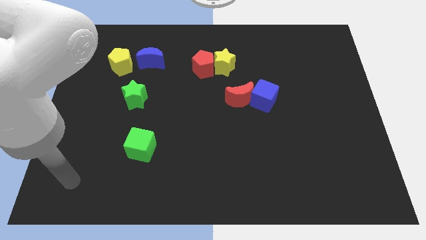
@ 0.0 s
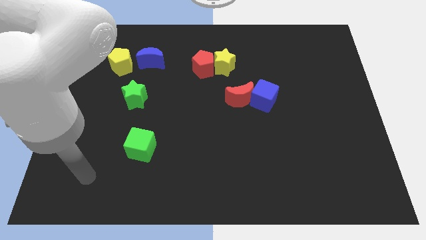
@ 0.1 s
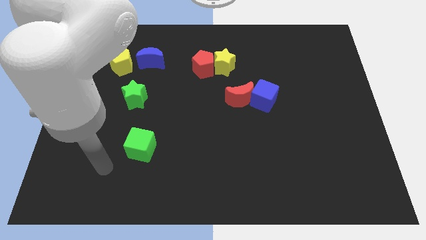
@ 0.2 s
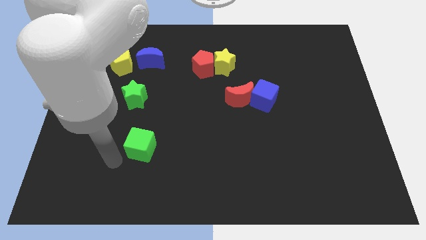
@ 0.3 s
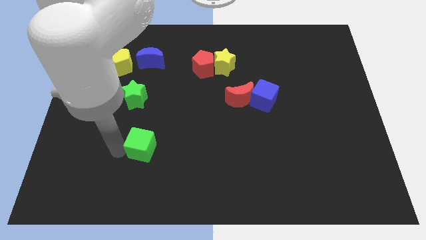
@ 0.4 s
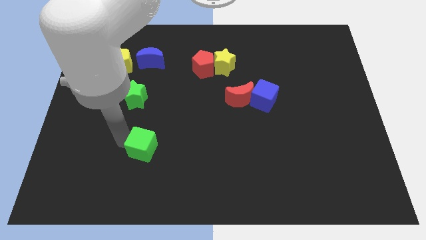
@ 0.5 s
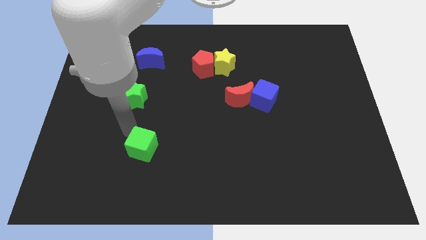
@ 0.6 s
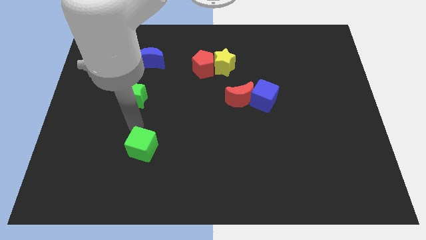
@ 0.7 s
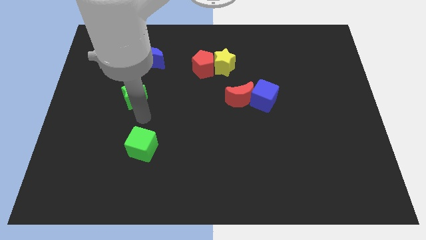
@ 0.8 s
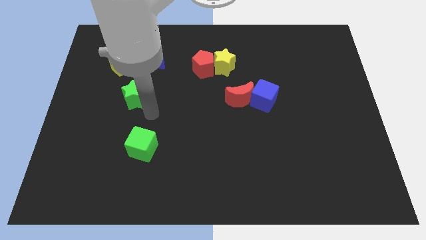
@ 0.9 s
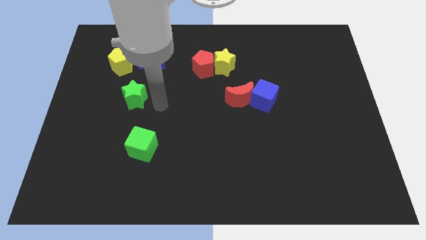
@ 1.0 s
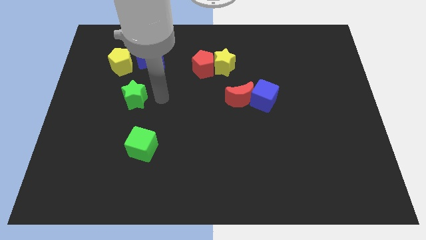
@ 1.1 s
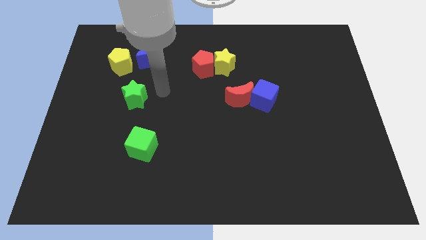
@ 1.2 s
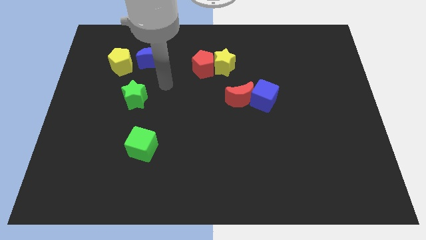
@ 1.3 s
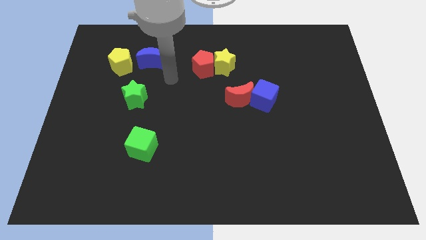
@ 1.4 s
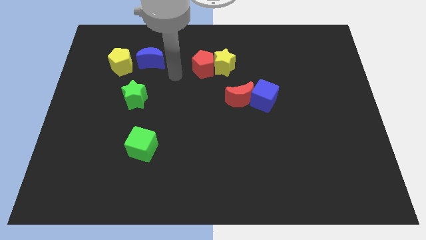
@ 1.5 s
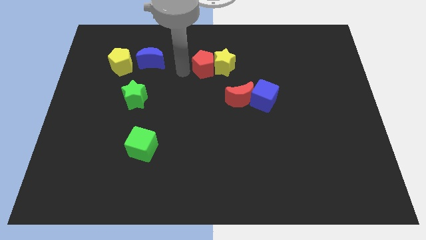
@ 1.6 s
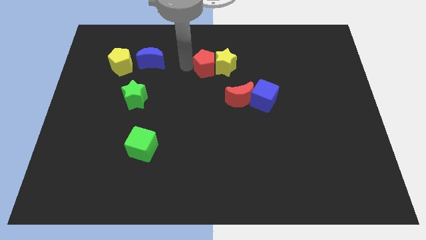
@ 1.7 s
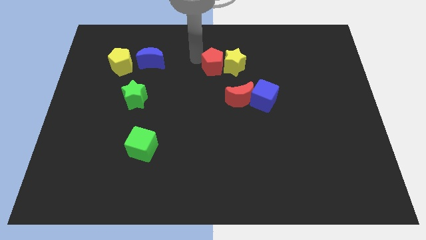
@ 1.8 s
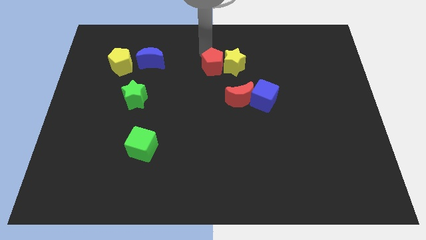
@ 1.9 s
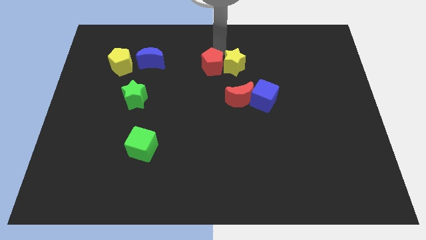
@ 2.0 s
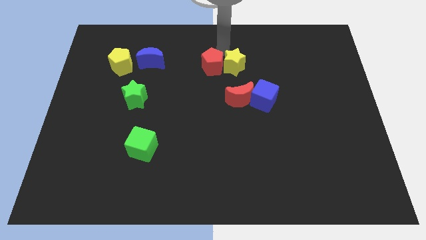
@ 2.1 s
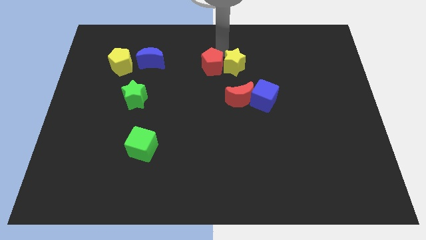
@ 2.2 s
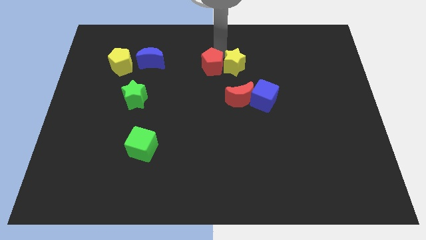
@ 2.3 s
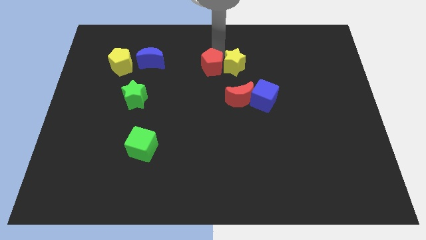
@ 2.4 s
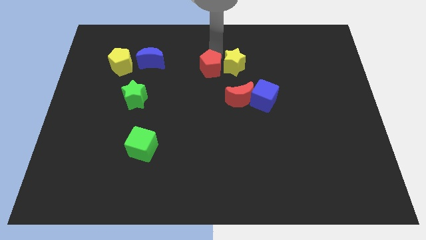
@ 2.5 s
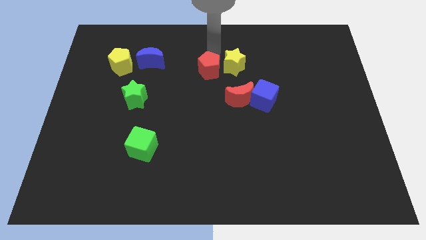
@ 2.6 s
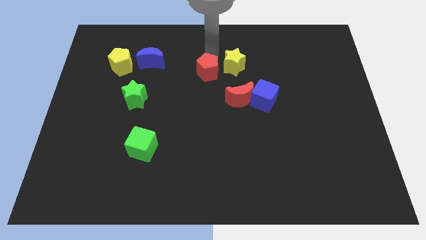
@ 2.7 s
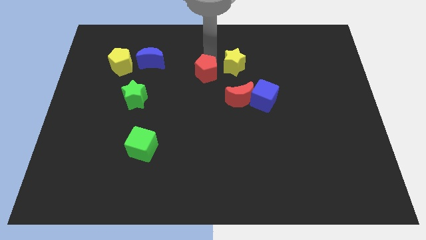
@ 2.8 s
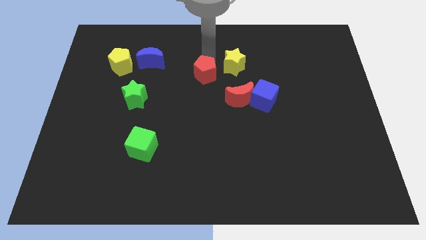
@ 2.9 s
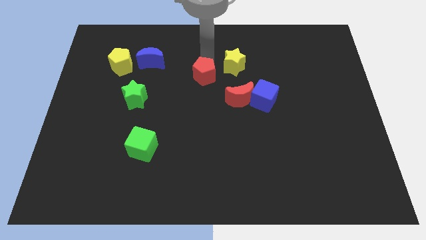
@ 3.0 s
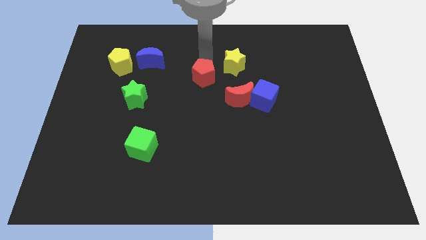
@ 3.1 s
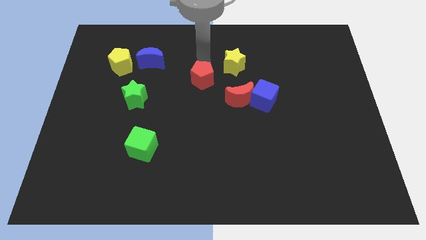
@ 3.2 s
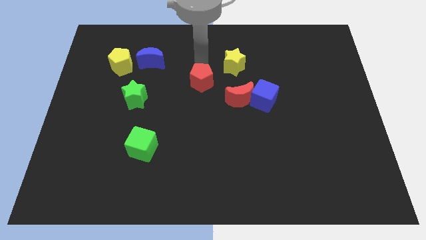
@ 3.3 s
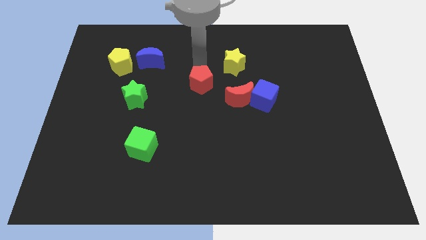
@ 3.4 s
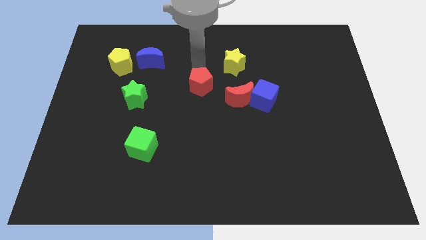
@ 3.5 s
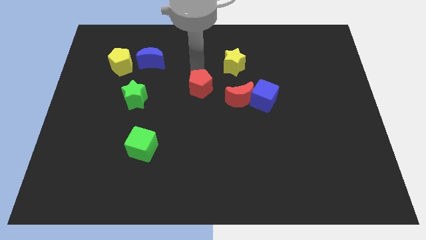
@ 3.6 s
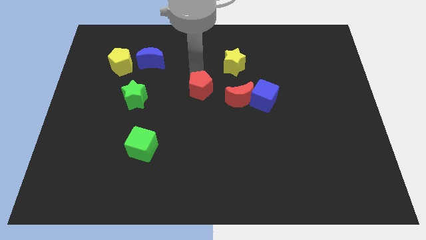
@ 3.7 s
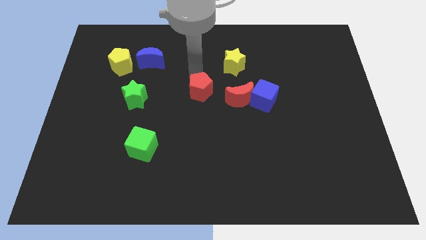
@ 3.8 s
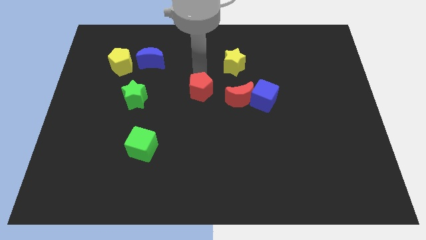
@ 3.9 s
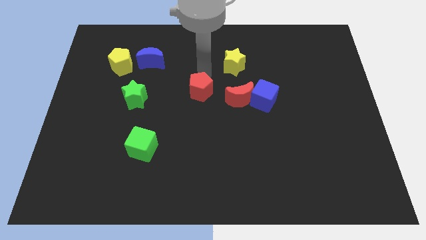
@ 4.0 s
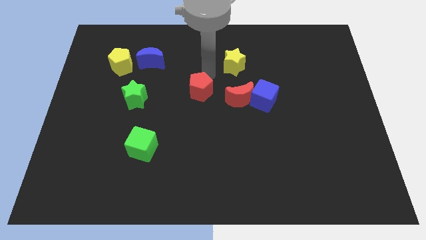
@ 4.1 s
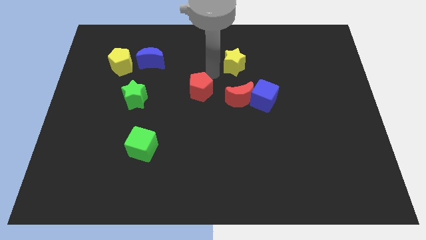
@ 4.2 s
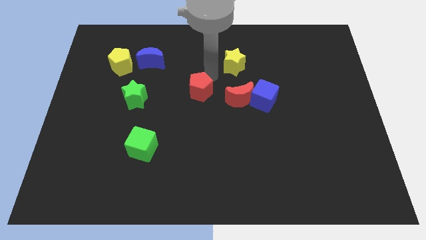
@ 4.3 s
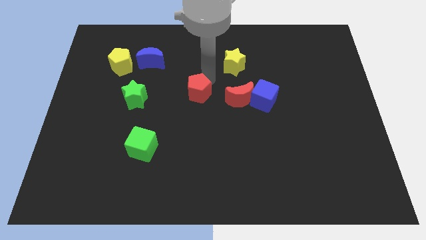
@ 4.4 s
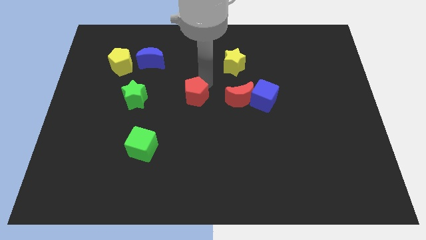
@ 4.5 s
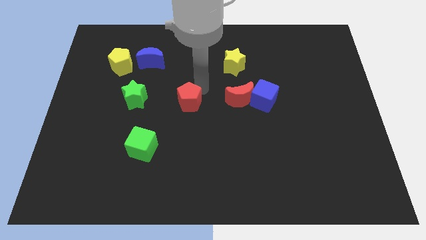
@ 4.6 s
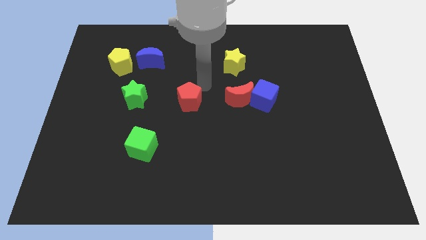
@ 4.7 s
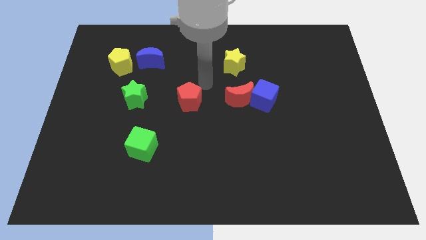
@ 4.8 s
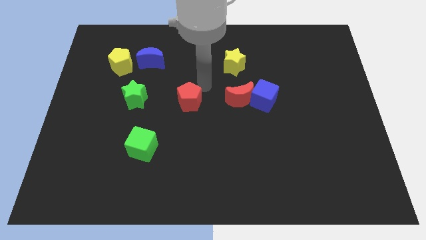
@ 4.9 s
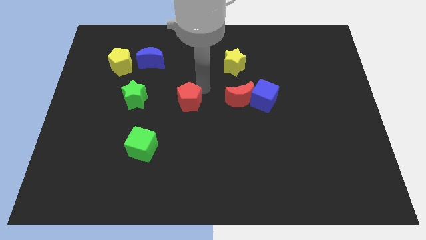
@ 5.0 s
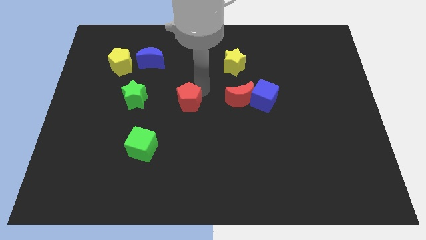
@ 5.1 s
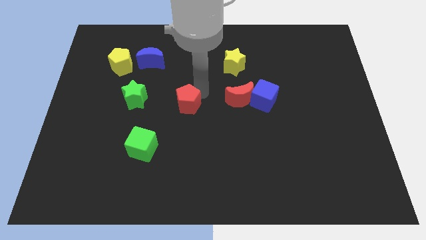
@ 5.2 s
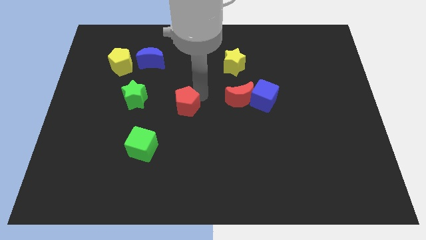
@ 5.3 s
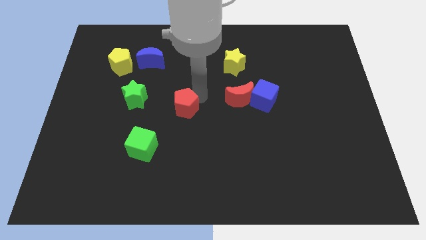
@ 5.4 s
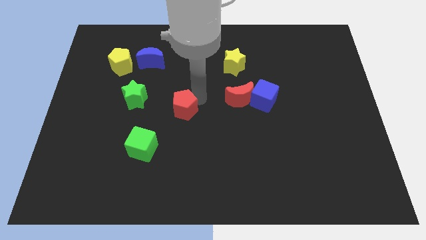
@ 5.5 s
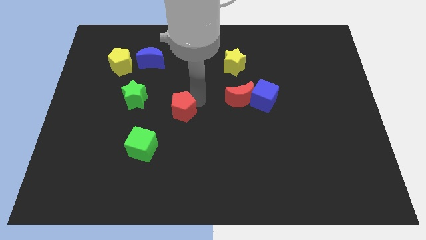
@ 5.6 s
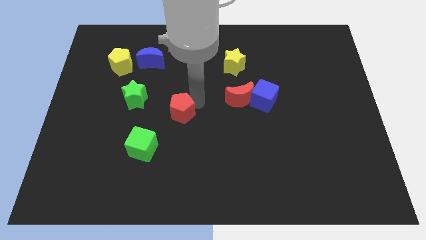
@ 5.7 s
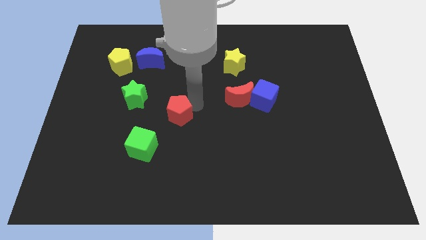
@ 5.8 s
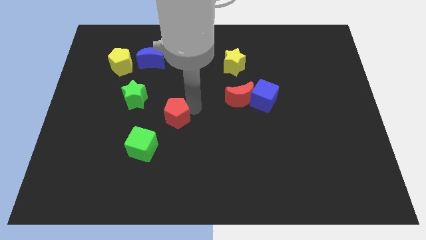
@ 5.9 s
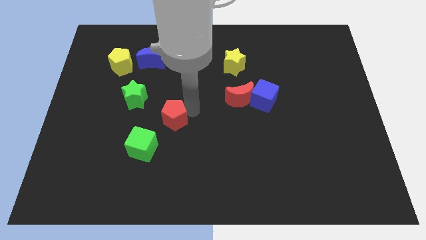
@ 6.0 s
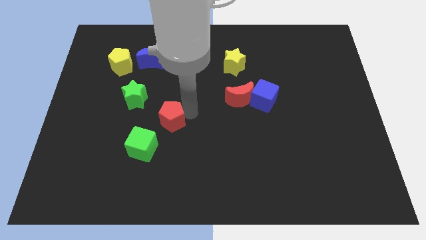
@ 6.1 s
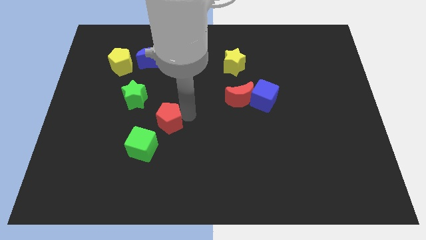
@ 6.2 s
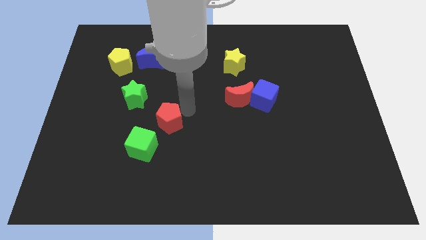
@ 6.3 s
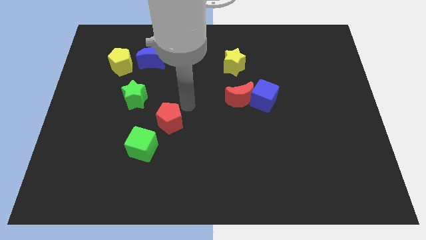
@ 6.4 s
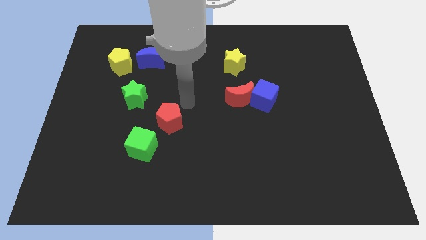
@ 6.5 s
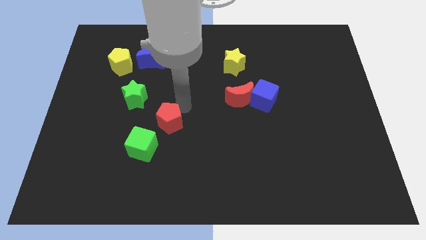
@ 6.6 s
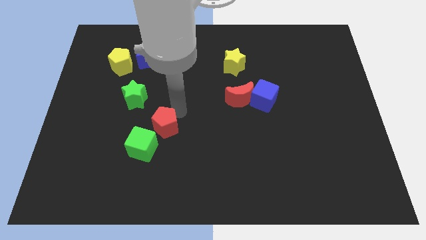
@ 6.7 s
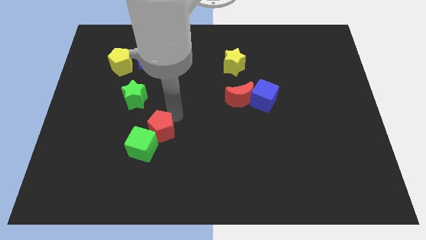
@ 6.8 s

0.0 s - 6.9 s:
put the red pentagon to the green cube

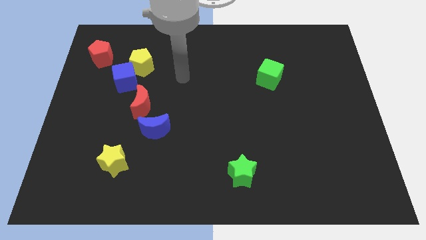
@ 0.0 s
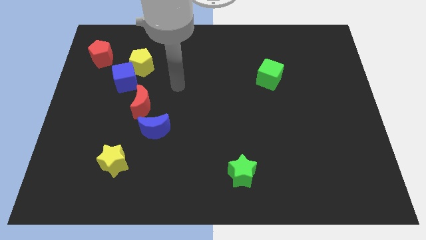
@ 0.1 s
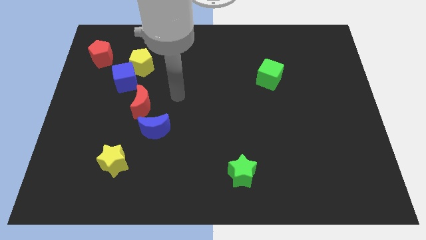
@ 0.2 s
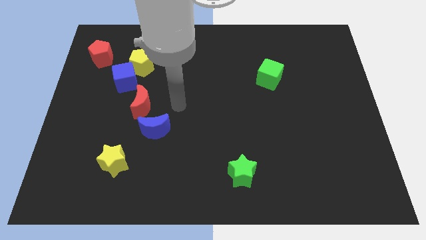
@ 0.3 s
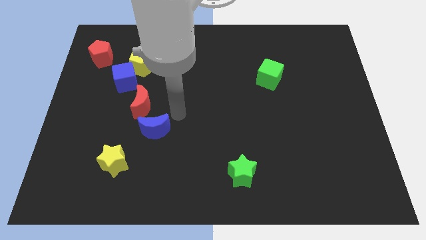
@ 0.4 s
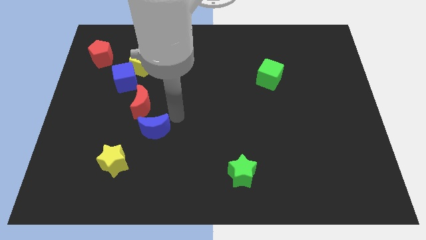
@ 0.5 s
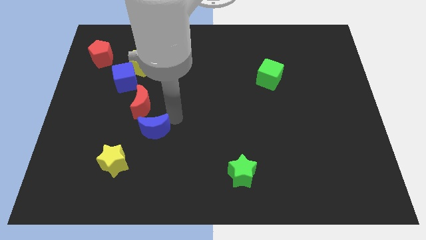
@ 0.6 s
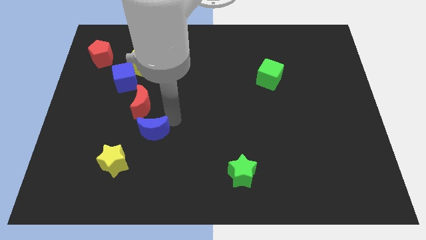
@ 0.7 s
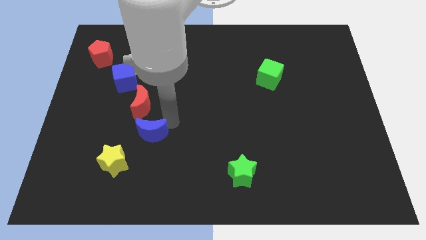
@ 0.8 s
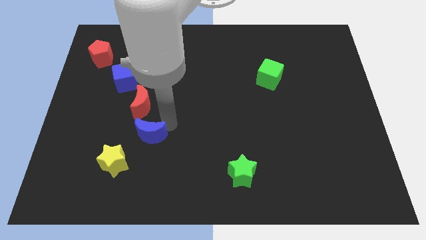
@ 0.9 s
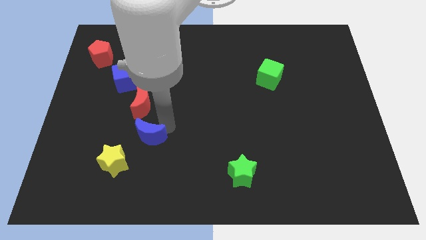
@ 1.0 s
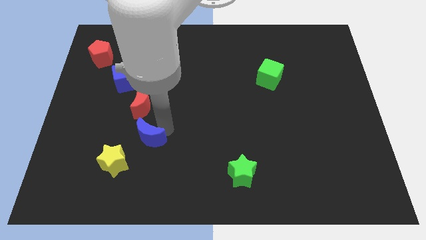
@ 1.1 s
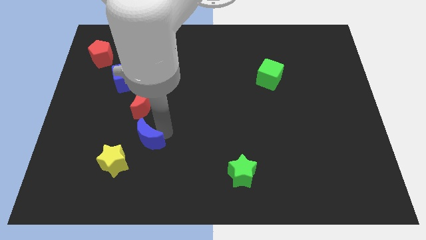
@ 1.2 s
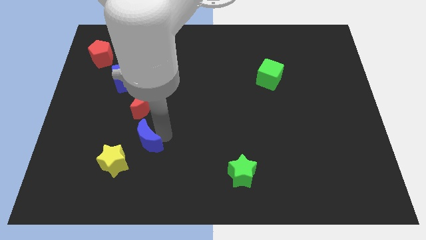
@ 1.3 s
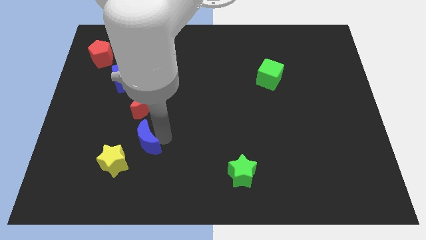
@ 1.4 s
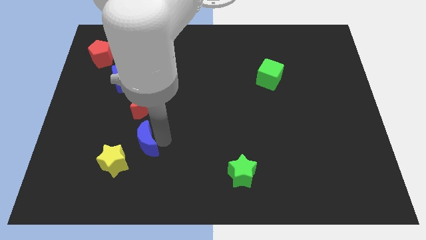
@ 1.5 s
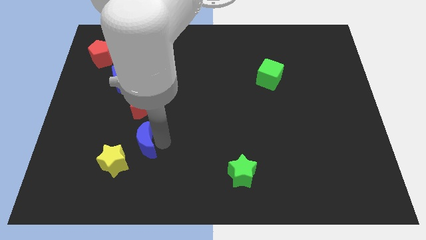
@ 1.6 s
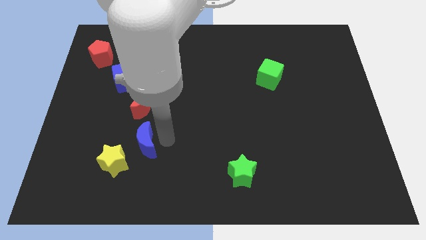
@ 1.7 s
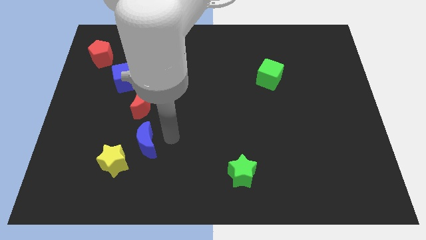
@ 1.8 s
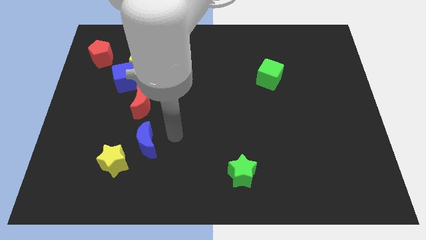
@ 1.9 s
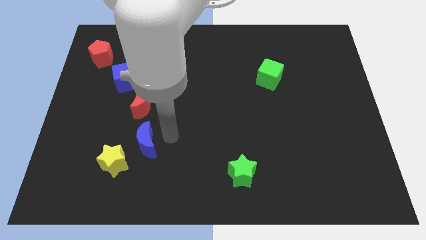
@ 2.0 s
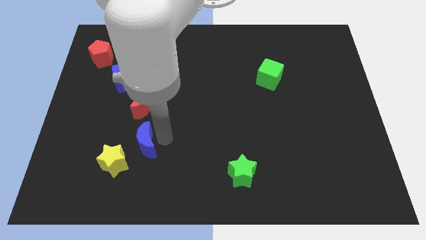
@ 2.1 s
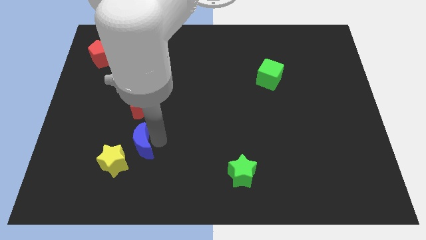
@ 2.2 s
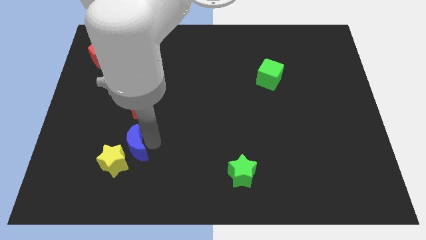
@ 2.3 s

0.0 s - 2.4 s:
move the blue moon to the yellow star
